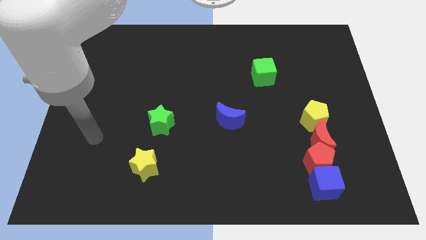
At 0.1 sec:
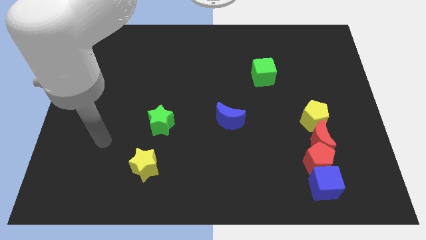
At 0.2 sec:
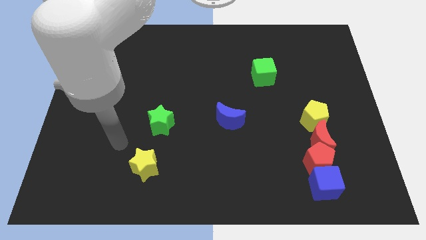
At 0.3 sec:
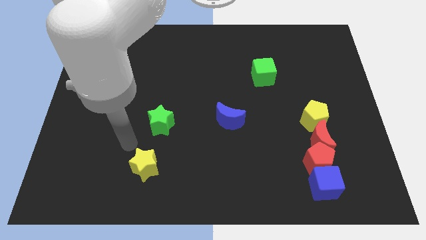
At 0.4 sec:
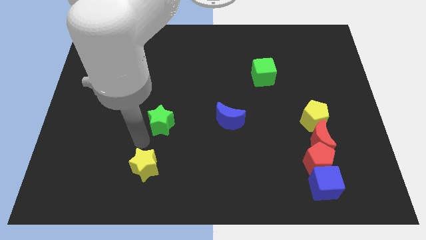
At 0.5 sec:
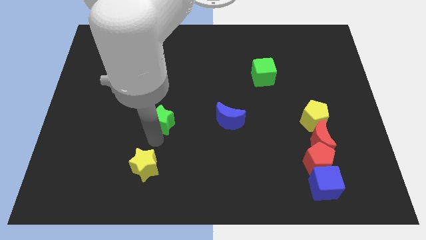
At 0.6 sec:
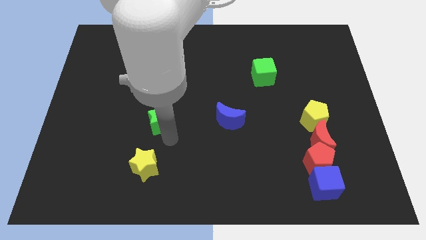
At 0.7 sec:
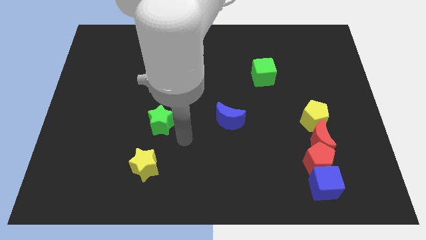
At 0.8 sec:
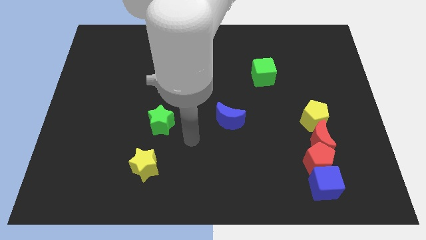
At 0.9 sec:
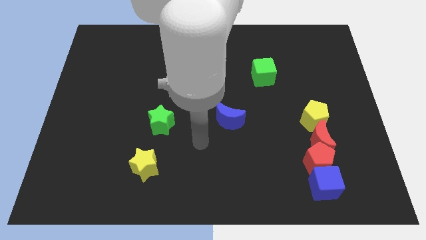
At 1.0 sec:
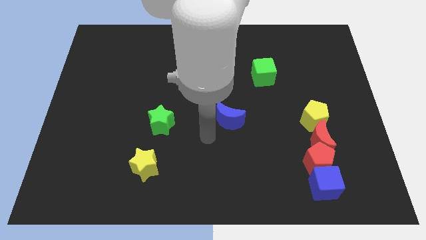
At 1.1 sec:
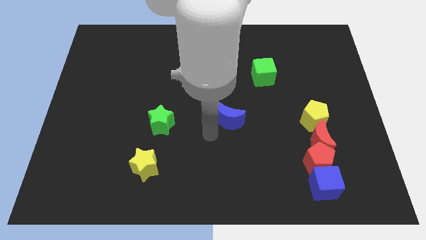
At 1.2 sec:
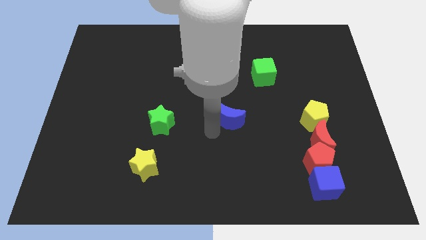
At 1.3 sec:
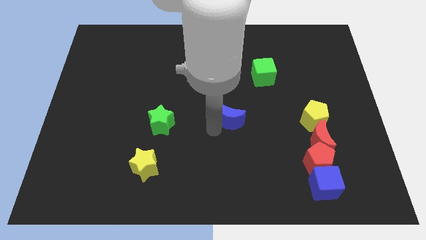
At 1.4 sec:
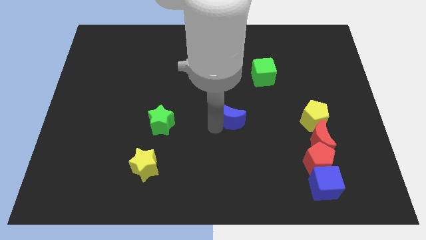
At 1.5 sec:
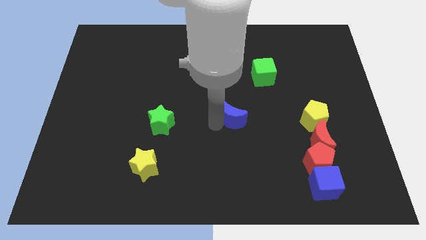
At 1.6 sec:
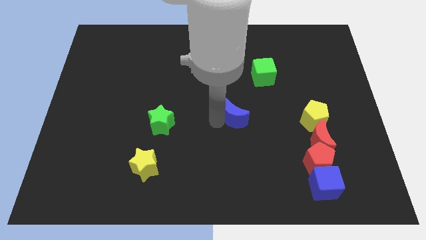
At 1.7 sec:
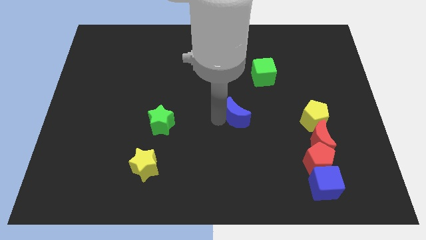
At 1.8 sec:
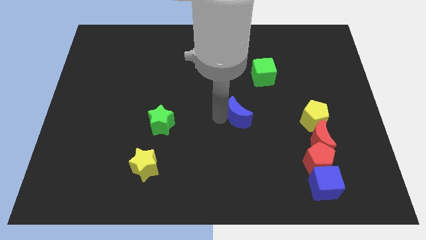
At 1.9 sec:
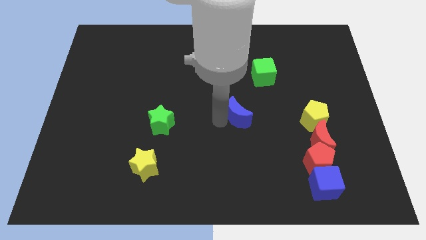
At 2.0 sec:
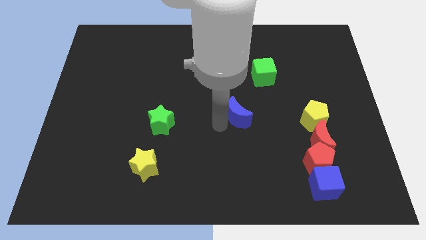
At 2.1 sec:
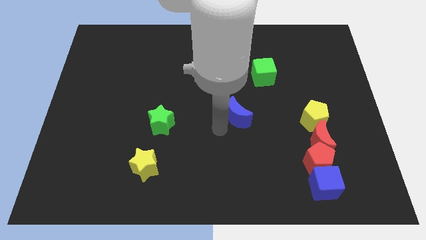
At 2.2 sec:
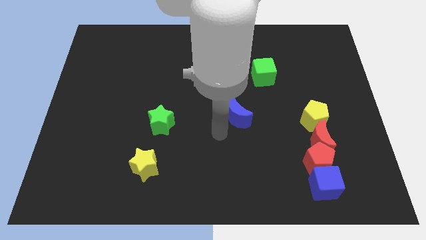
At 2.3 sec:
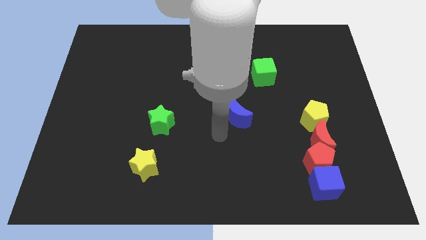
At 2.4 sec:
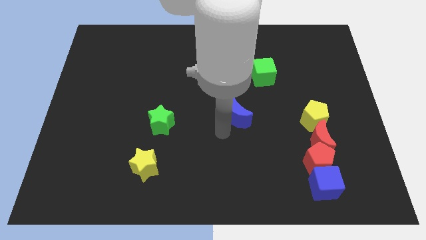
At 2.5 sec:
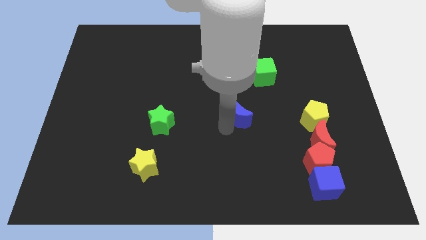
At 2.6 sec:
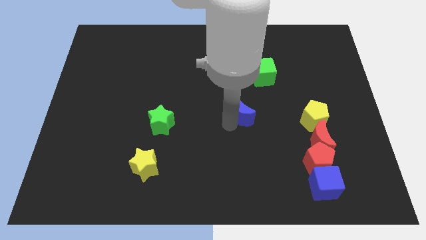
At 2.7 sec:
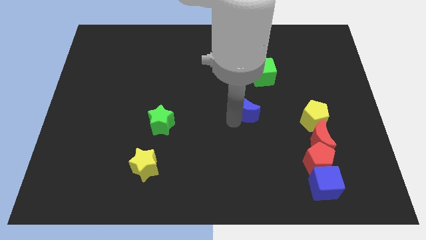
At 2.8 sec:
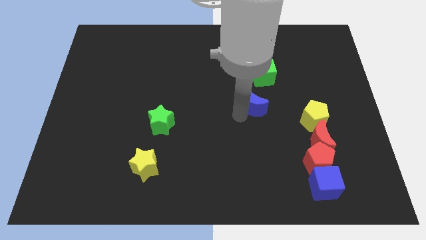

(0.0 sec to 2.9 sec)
slide the blue moon a little bit up and right

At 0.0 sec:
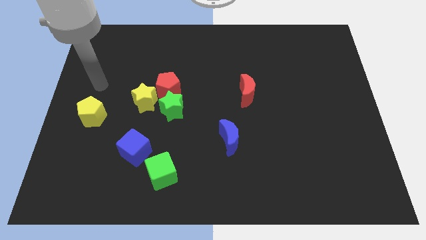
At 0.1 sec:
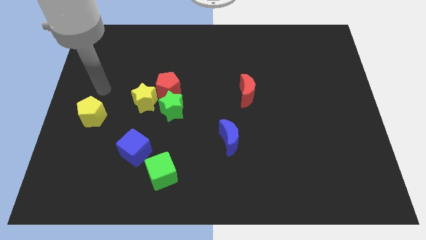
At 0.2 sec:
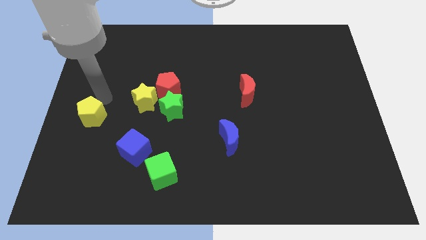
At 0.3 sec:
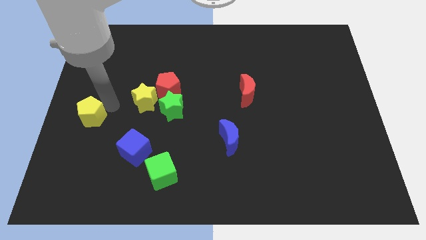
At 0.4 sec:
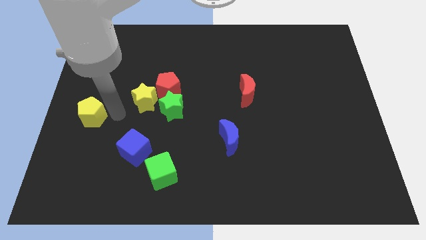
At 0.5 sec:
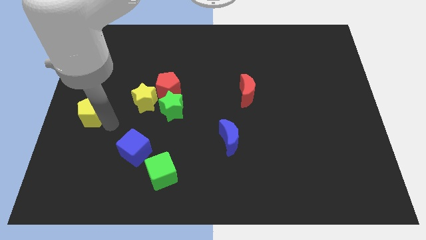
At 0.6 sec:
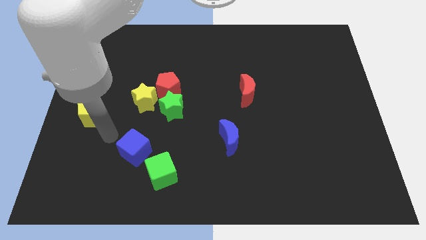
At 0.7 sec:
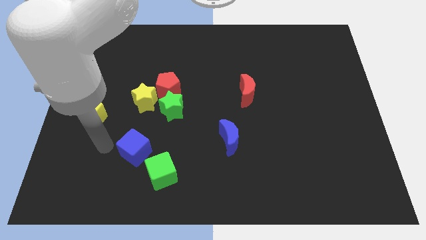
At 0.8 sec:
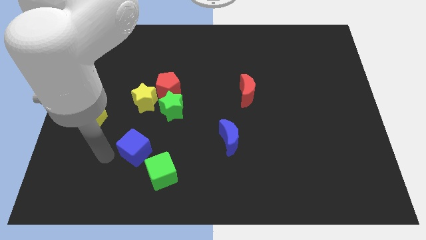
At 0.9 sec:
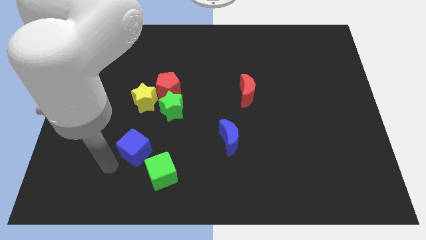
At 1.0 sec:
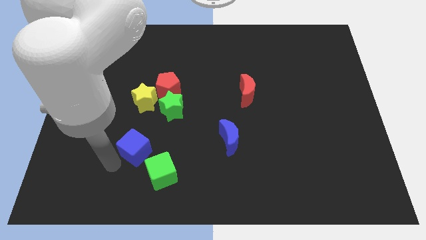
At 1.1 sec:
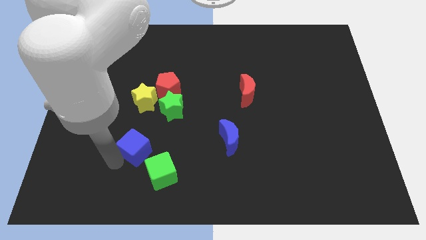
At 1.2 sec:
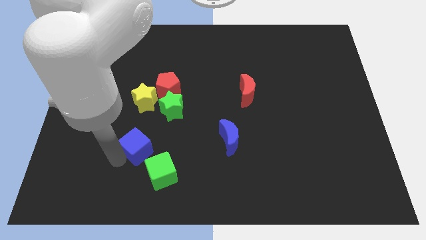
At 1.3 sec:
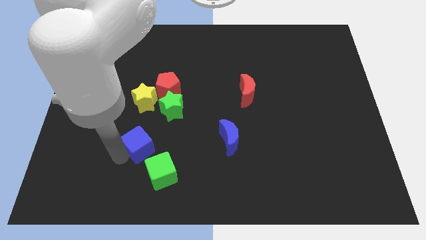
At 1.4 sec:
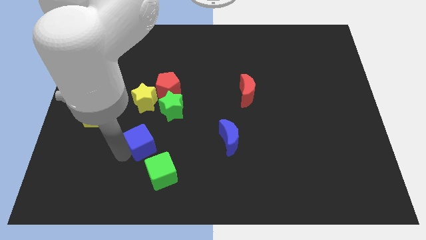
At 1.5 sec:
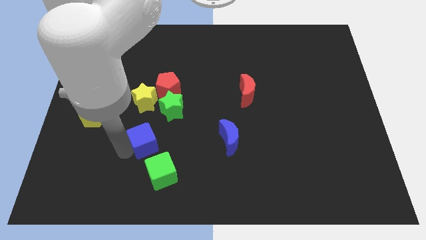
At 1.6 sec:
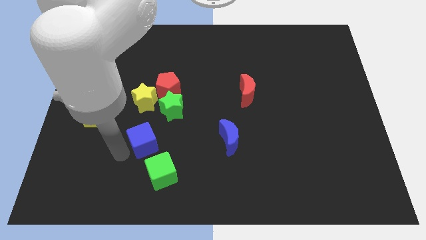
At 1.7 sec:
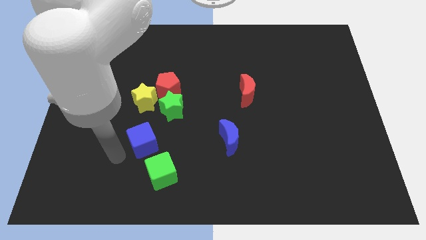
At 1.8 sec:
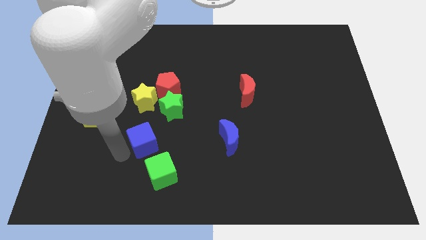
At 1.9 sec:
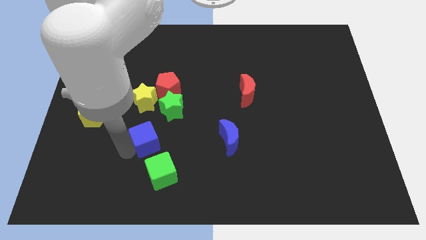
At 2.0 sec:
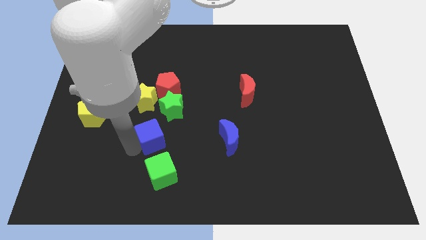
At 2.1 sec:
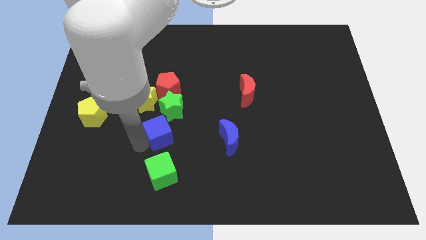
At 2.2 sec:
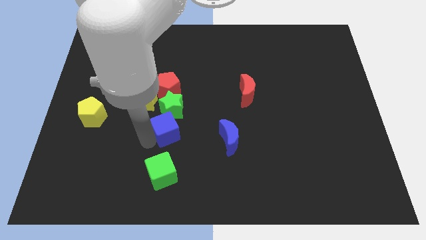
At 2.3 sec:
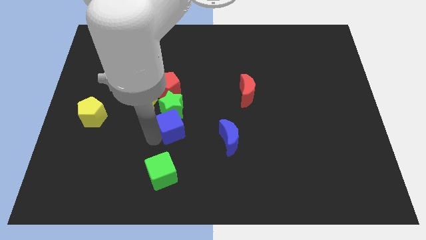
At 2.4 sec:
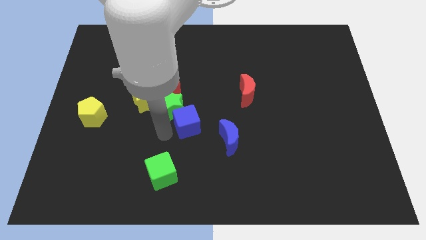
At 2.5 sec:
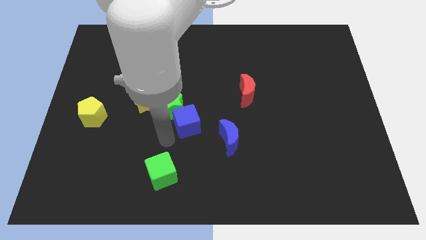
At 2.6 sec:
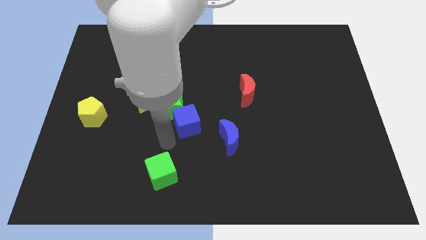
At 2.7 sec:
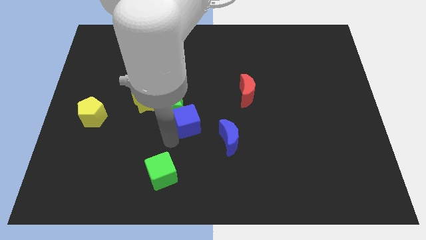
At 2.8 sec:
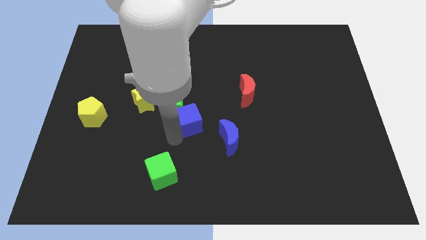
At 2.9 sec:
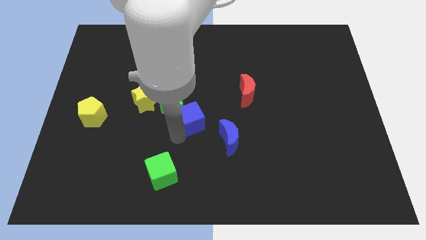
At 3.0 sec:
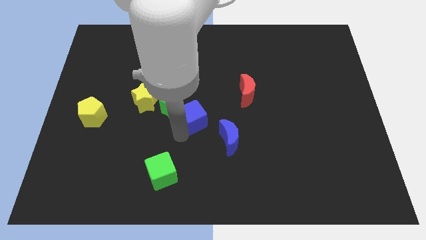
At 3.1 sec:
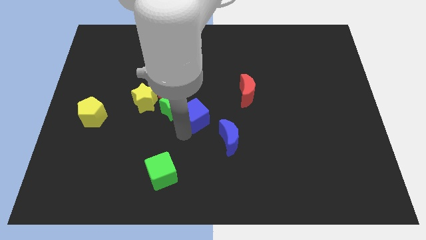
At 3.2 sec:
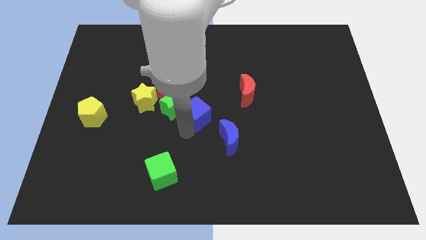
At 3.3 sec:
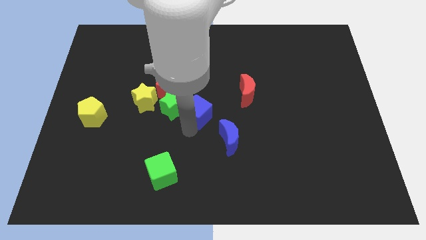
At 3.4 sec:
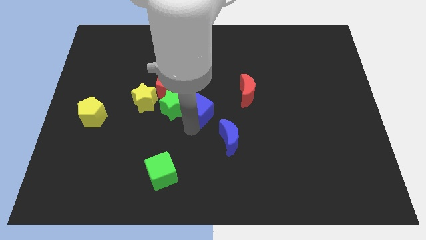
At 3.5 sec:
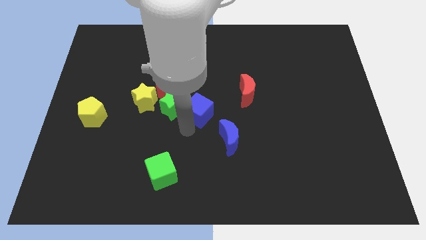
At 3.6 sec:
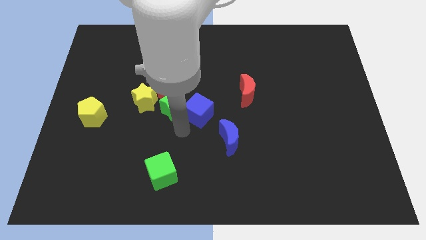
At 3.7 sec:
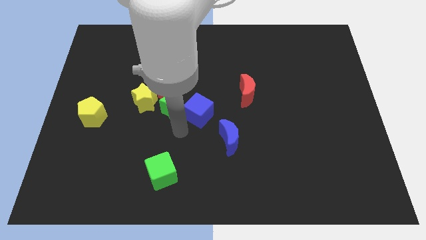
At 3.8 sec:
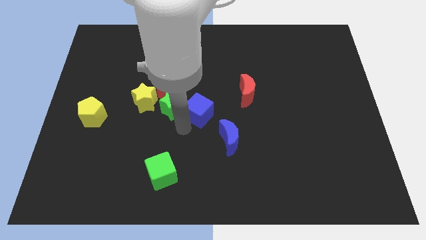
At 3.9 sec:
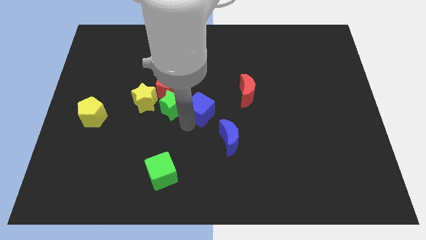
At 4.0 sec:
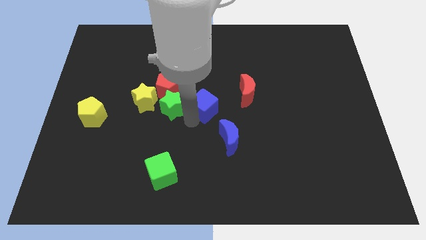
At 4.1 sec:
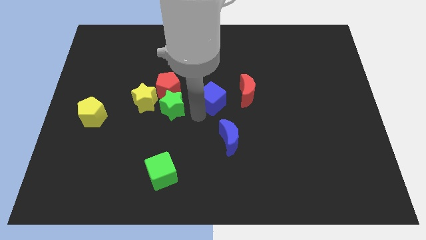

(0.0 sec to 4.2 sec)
move the blue cube up and then to the right

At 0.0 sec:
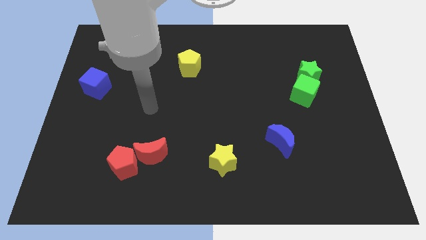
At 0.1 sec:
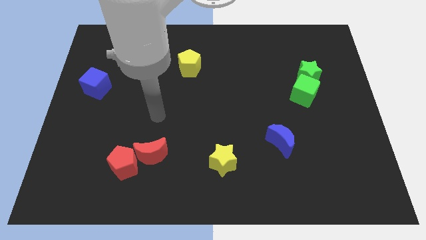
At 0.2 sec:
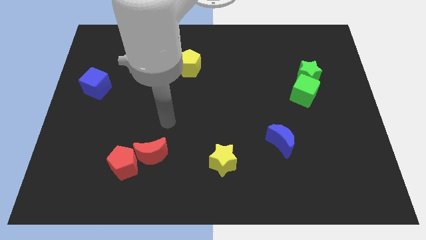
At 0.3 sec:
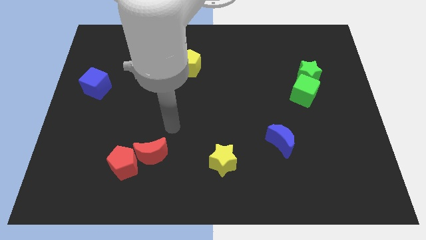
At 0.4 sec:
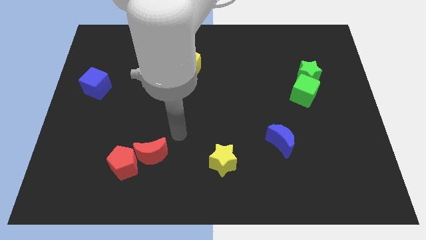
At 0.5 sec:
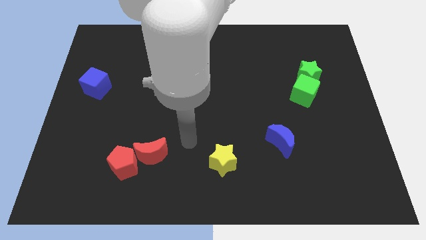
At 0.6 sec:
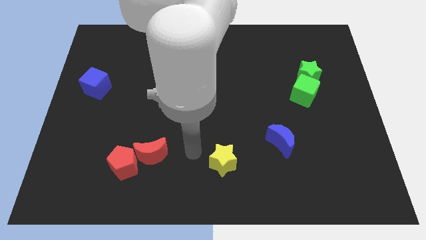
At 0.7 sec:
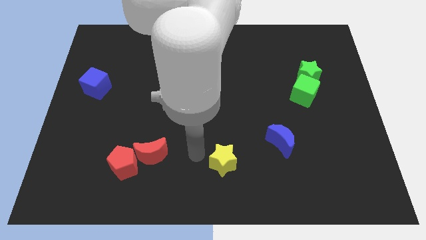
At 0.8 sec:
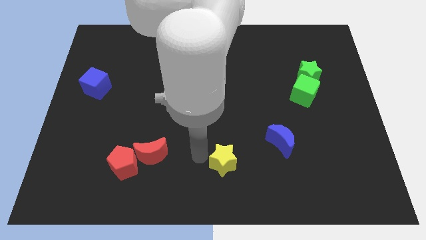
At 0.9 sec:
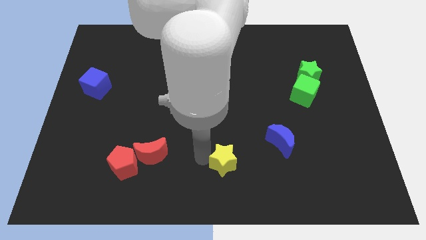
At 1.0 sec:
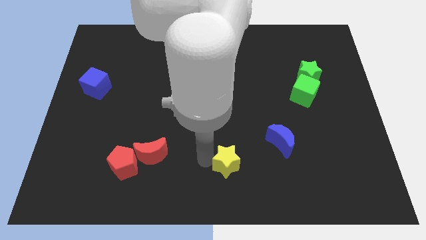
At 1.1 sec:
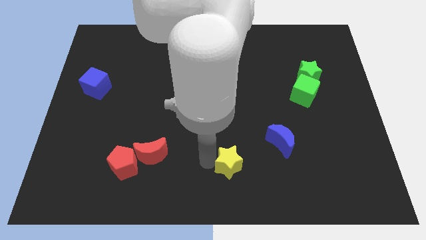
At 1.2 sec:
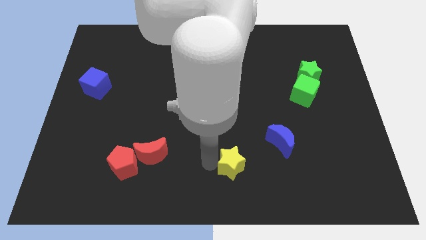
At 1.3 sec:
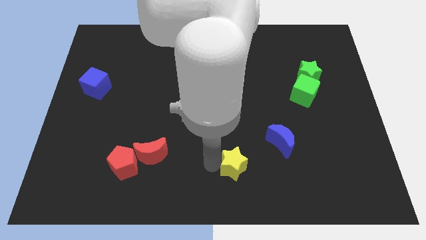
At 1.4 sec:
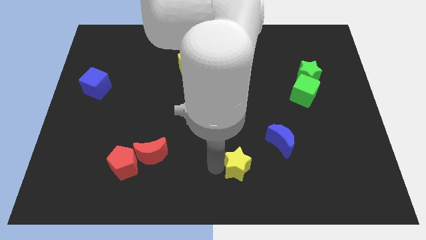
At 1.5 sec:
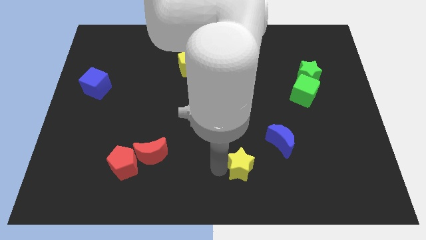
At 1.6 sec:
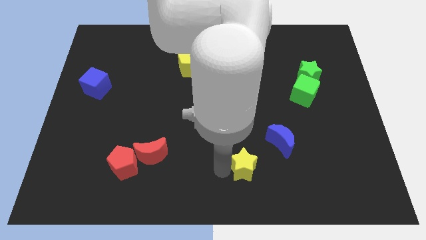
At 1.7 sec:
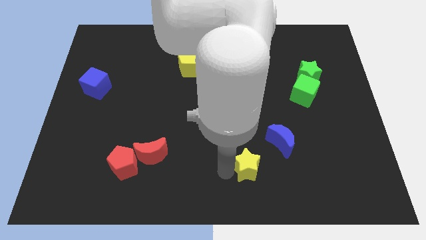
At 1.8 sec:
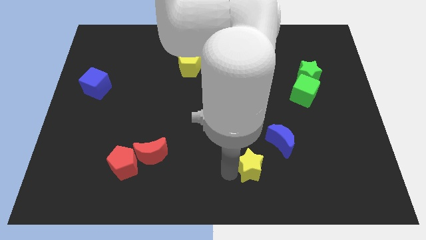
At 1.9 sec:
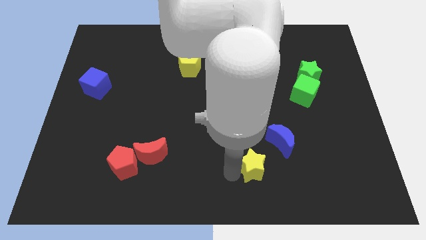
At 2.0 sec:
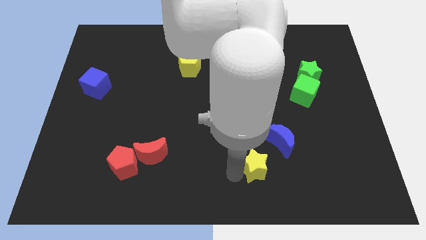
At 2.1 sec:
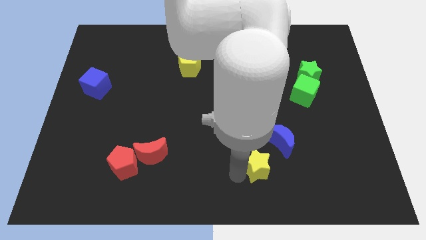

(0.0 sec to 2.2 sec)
slightly slide the yellow star to the right
